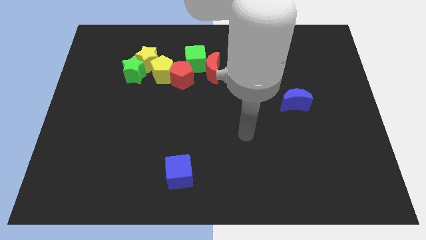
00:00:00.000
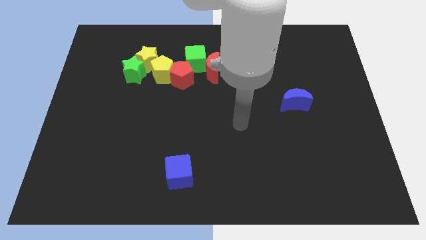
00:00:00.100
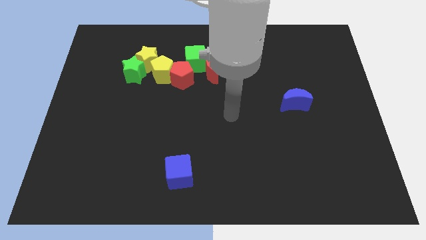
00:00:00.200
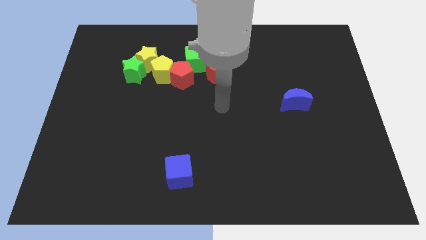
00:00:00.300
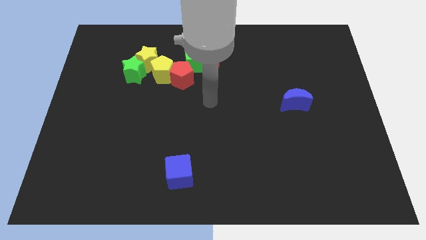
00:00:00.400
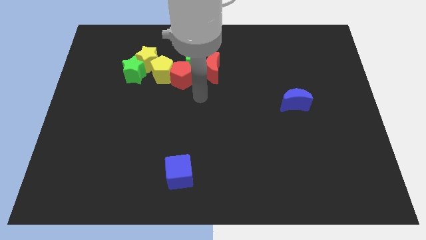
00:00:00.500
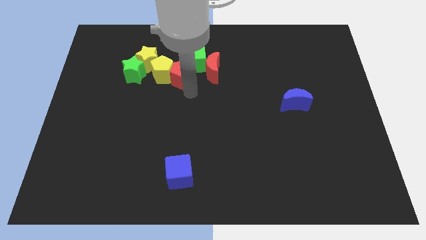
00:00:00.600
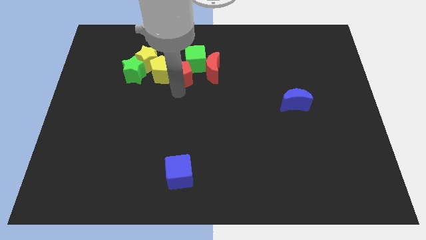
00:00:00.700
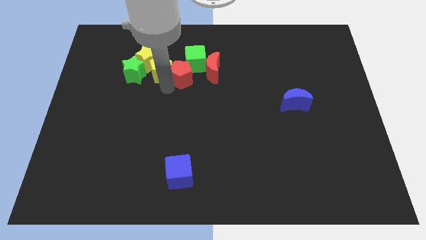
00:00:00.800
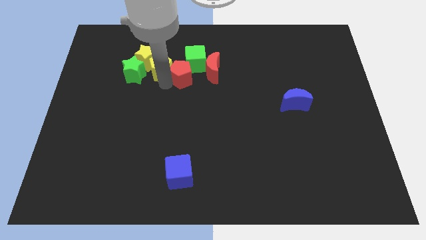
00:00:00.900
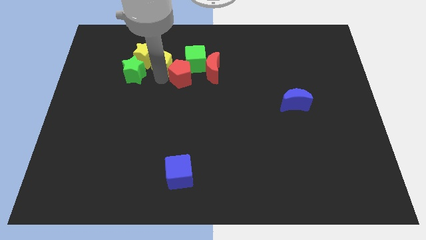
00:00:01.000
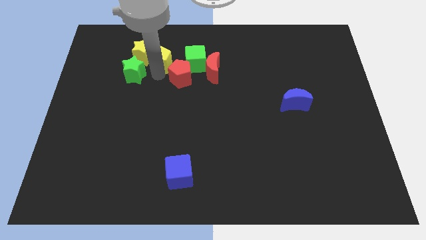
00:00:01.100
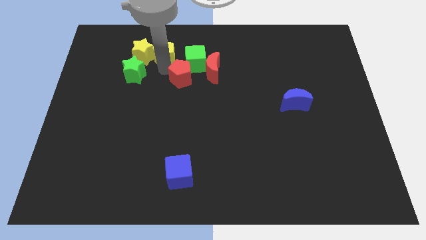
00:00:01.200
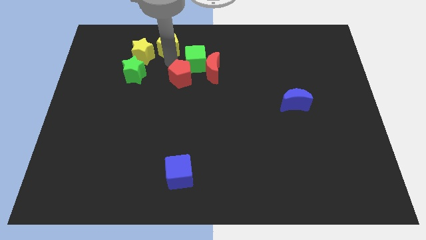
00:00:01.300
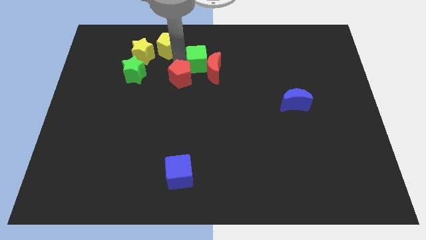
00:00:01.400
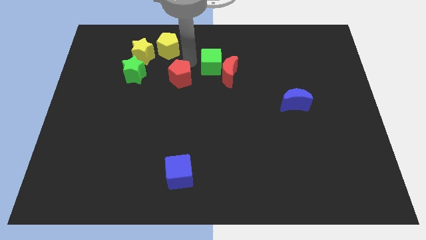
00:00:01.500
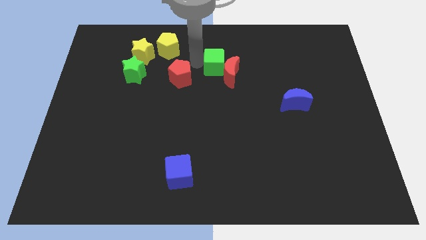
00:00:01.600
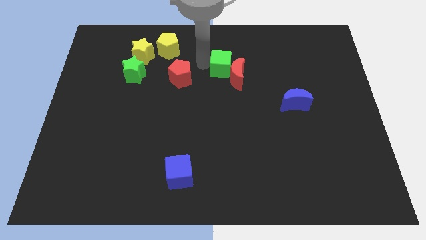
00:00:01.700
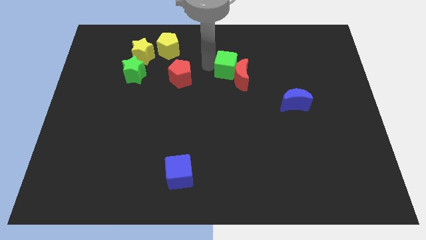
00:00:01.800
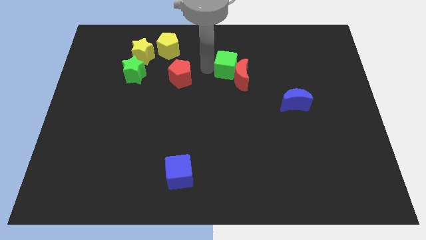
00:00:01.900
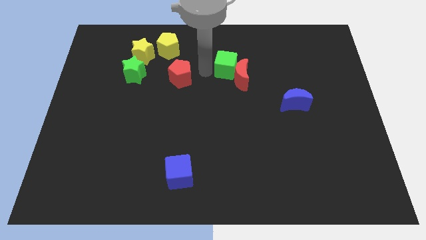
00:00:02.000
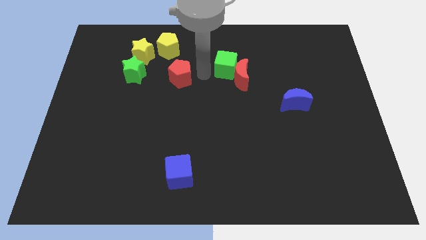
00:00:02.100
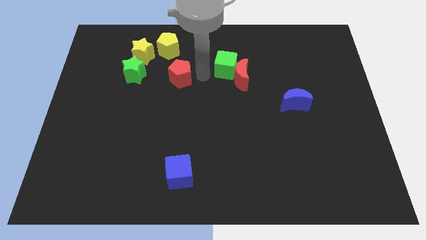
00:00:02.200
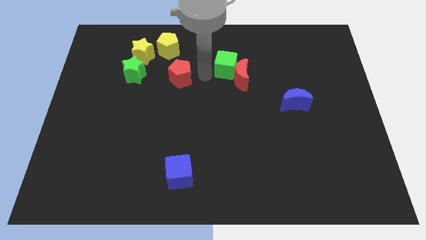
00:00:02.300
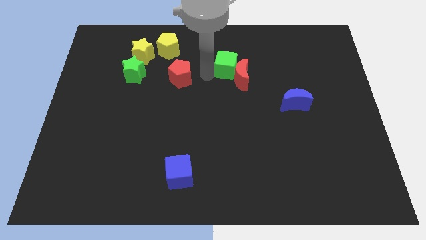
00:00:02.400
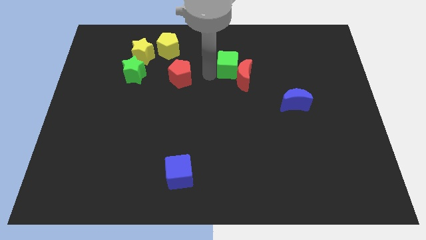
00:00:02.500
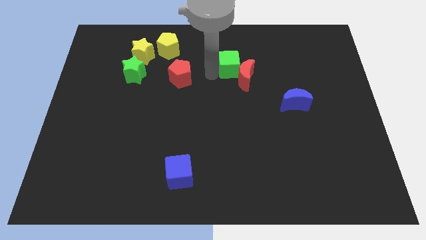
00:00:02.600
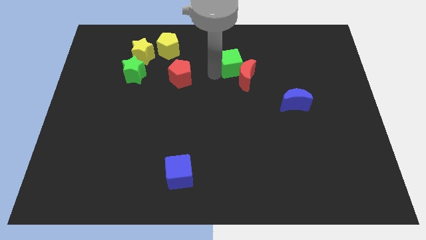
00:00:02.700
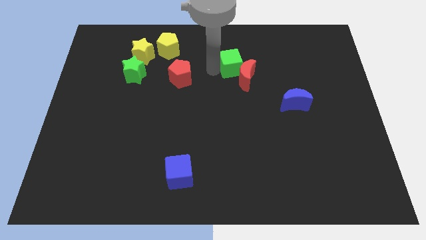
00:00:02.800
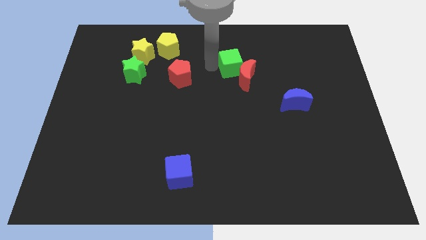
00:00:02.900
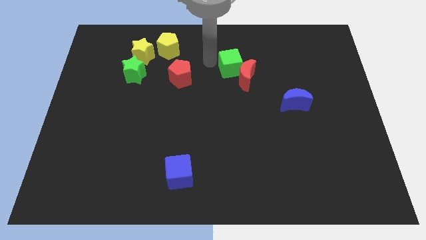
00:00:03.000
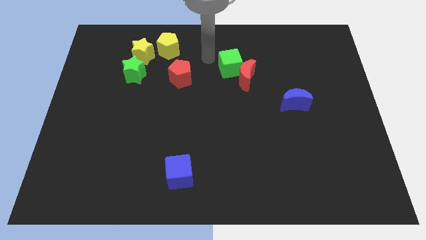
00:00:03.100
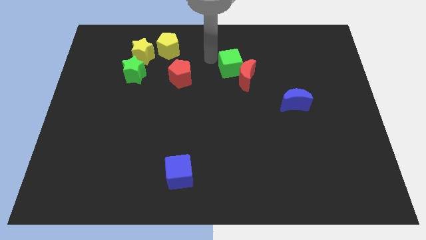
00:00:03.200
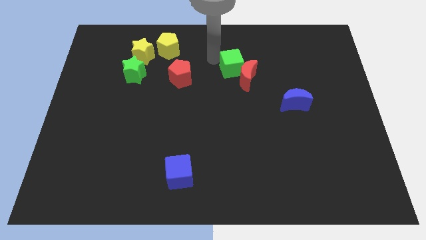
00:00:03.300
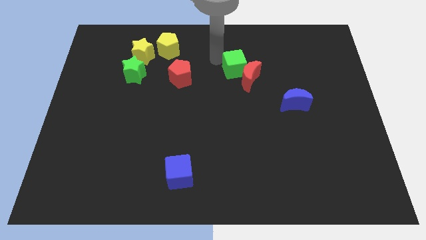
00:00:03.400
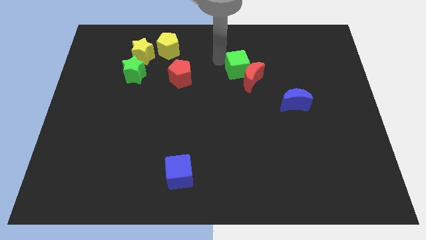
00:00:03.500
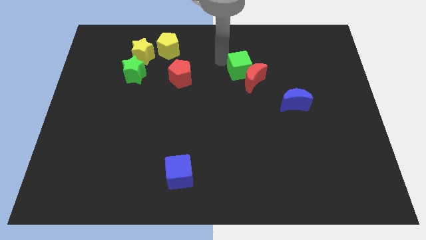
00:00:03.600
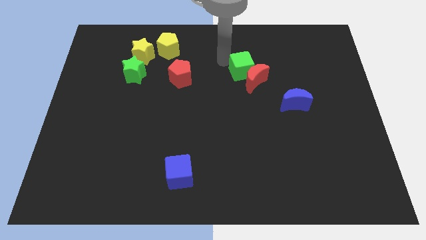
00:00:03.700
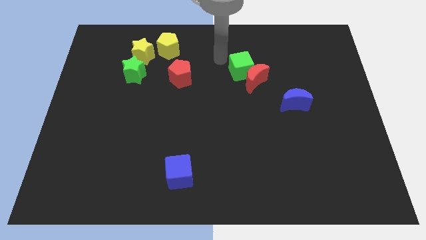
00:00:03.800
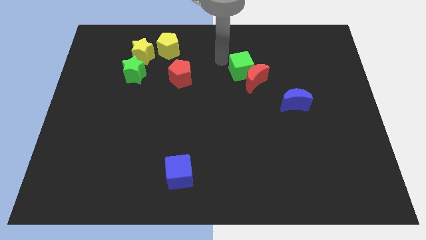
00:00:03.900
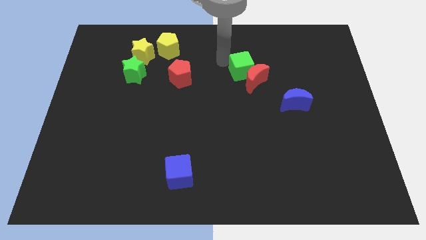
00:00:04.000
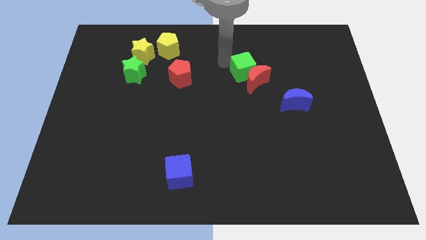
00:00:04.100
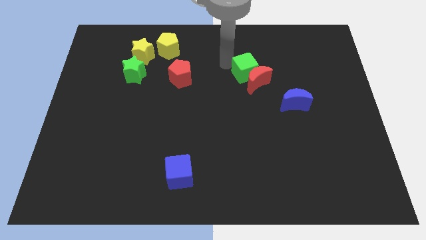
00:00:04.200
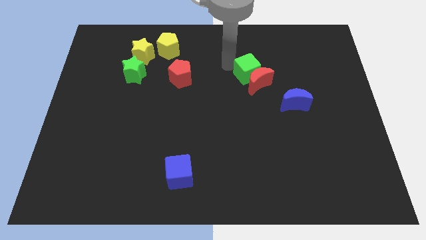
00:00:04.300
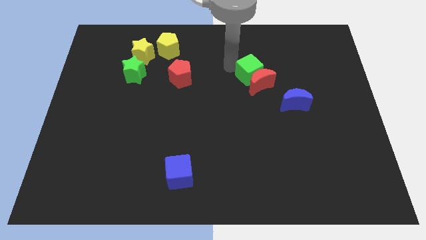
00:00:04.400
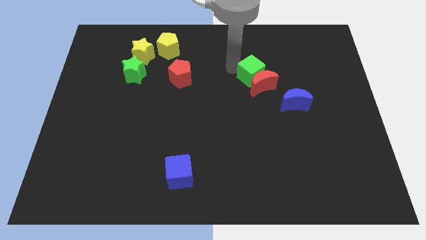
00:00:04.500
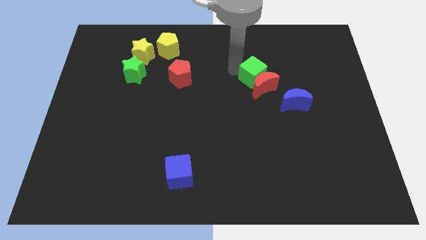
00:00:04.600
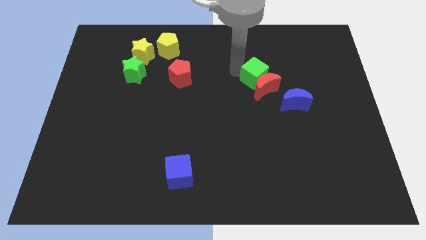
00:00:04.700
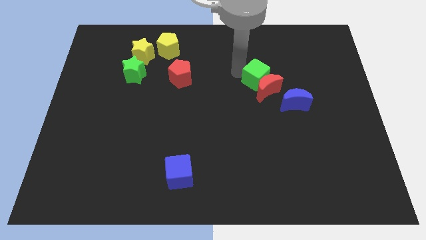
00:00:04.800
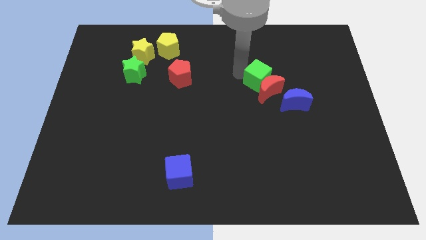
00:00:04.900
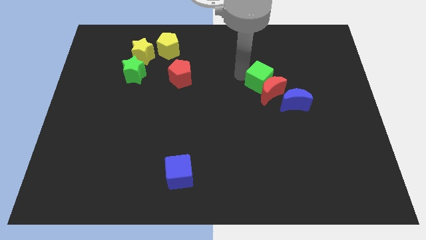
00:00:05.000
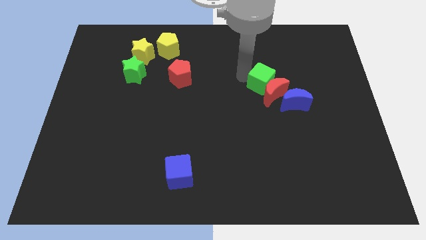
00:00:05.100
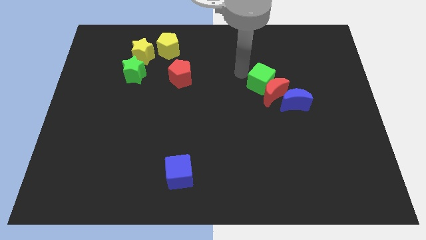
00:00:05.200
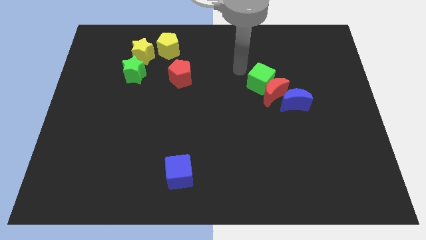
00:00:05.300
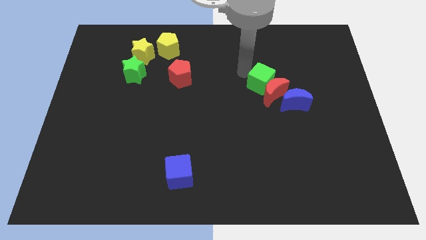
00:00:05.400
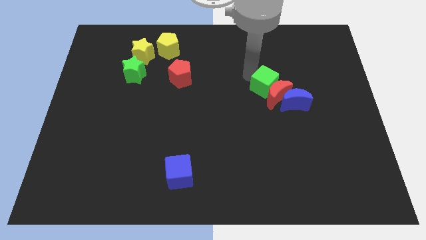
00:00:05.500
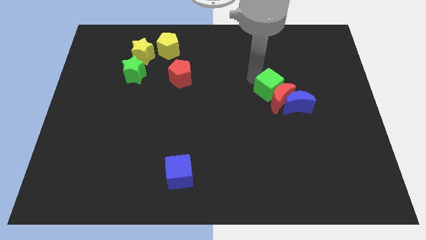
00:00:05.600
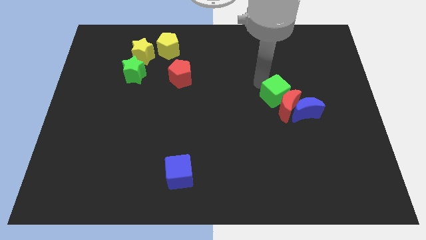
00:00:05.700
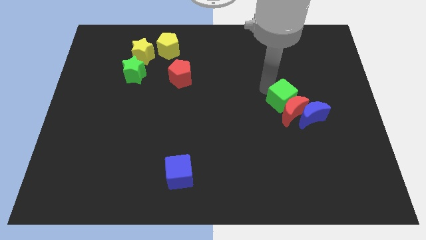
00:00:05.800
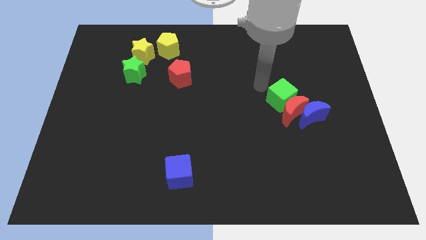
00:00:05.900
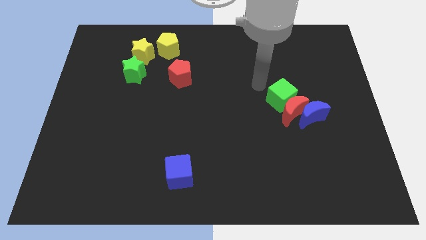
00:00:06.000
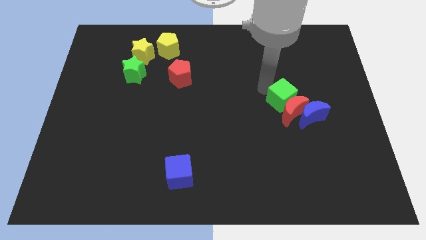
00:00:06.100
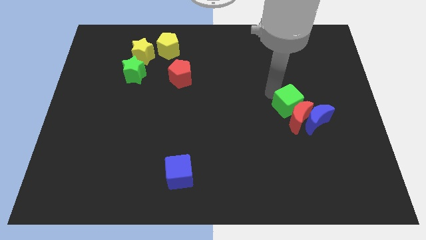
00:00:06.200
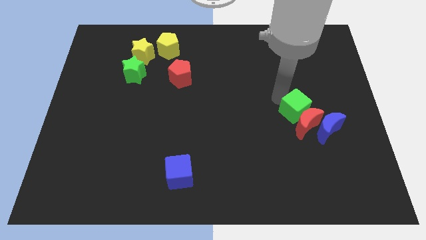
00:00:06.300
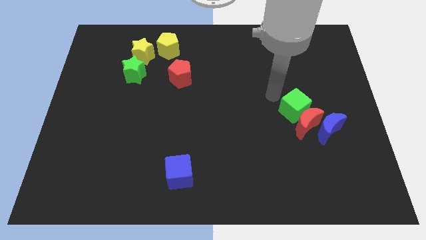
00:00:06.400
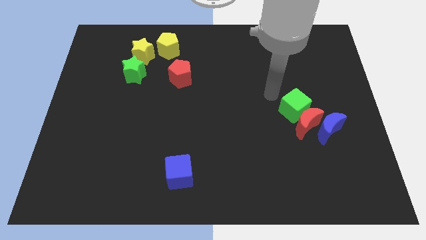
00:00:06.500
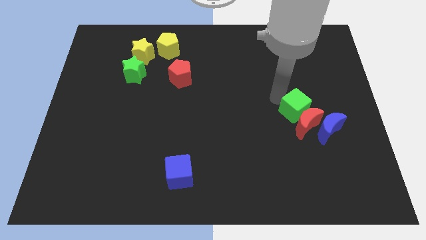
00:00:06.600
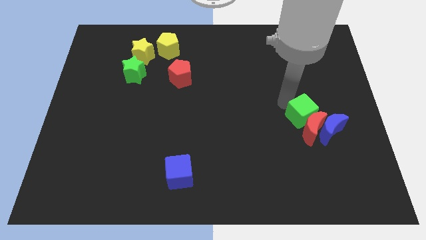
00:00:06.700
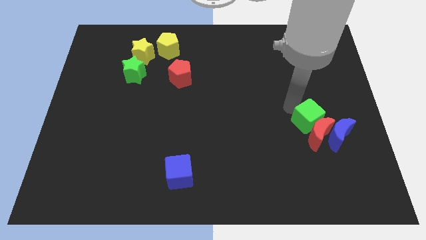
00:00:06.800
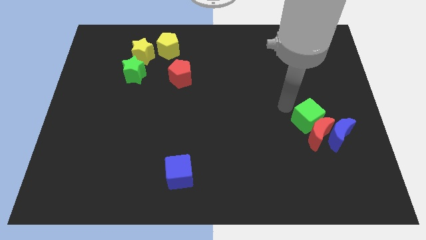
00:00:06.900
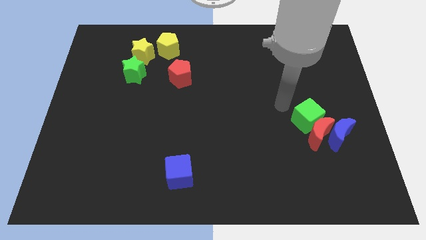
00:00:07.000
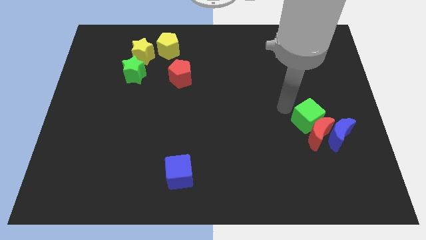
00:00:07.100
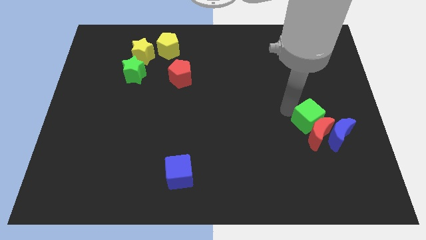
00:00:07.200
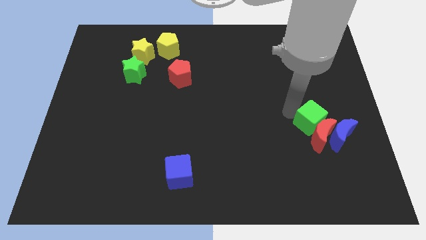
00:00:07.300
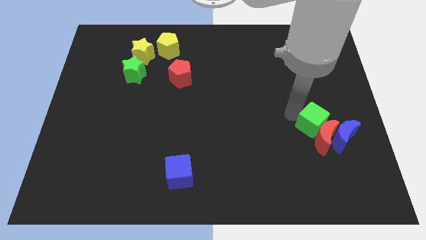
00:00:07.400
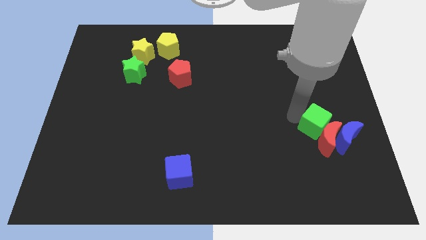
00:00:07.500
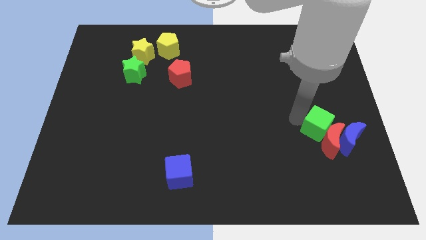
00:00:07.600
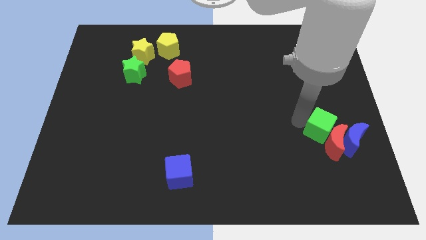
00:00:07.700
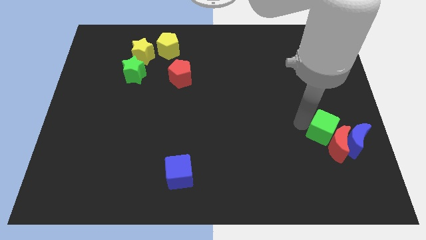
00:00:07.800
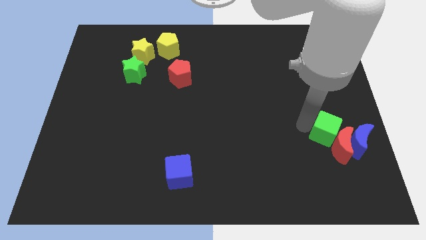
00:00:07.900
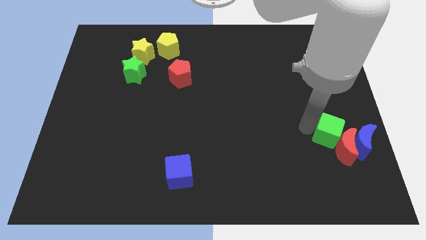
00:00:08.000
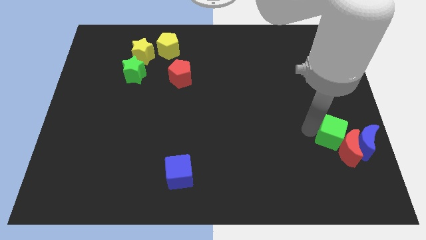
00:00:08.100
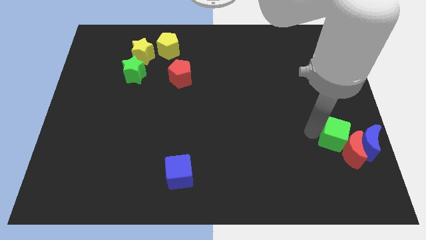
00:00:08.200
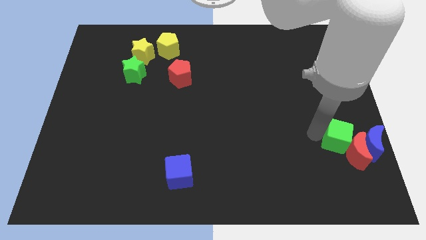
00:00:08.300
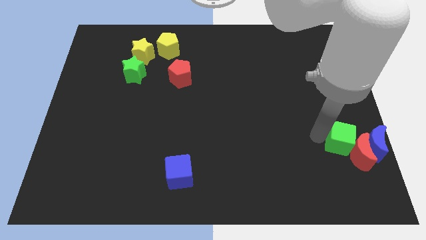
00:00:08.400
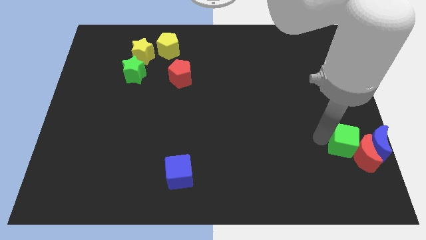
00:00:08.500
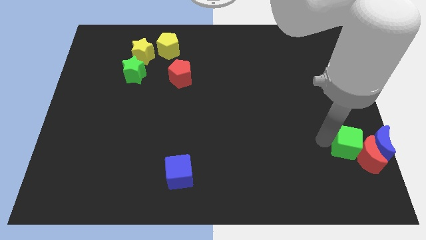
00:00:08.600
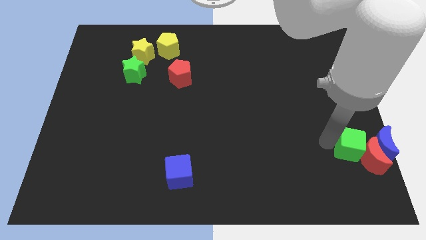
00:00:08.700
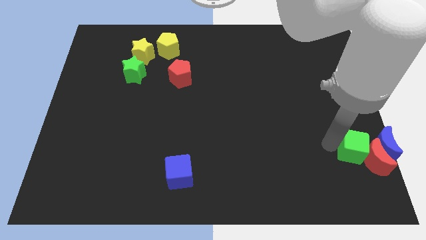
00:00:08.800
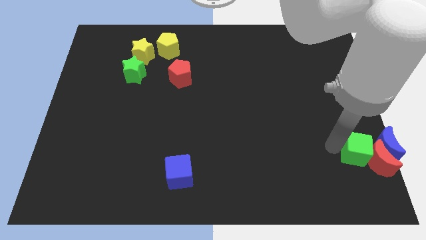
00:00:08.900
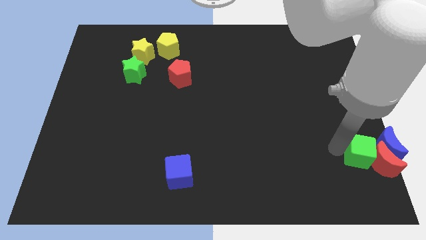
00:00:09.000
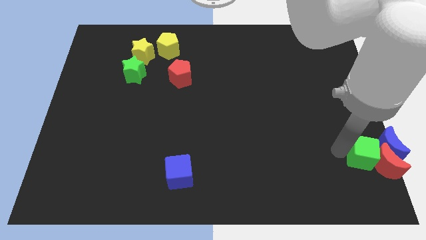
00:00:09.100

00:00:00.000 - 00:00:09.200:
slide the green cube to the blue moon
